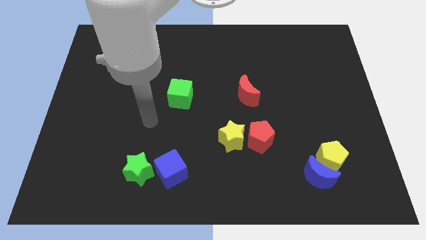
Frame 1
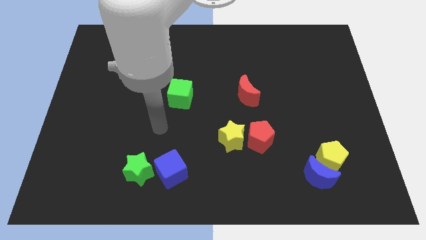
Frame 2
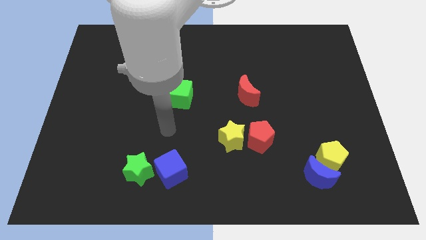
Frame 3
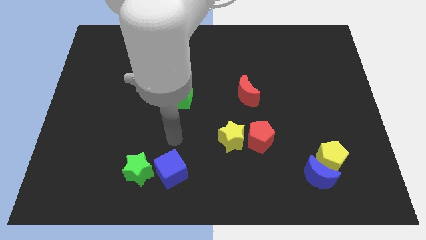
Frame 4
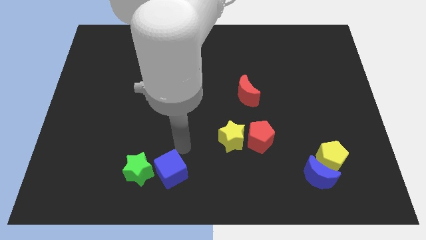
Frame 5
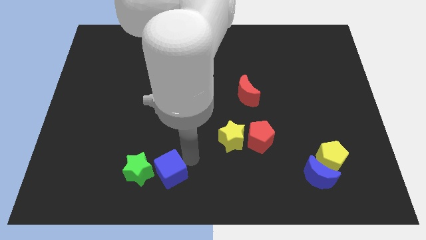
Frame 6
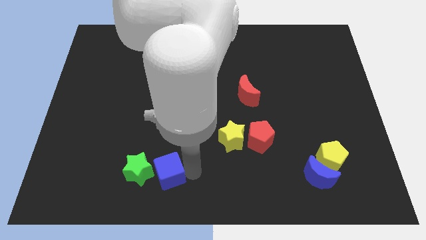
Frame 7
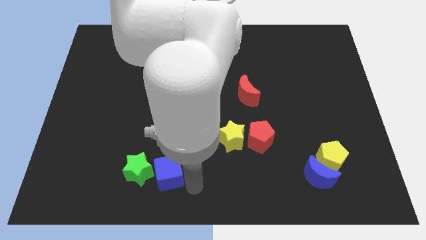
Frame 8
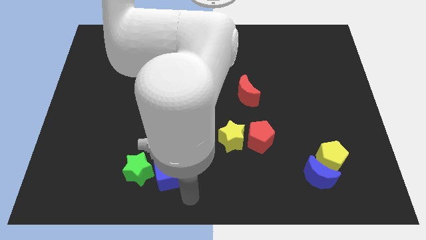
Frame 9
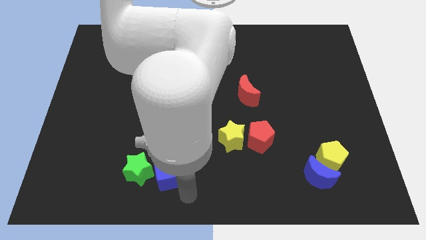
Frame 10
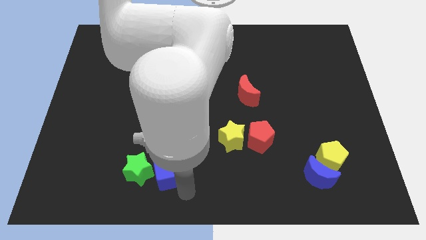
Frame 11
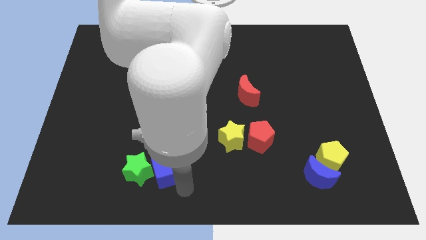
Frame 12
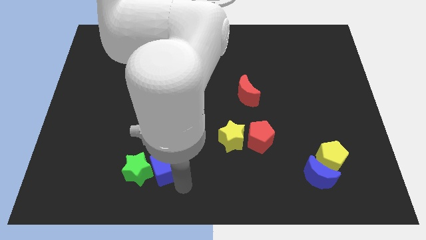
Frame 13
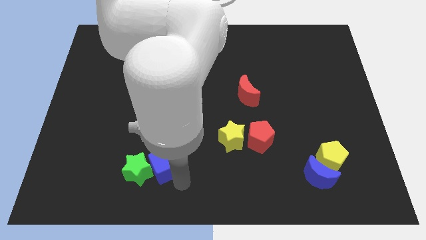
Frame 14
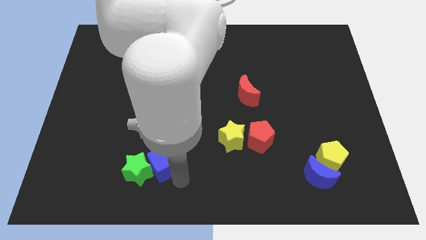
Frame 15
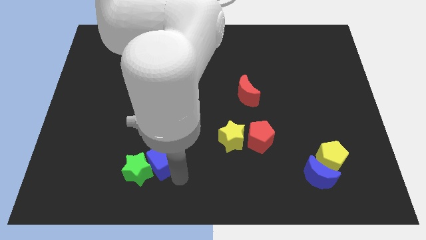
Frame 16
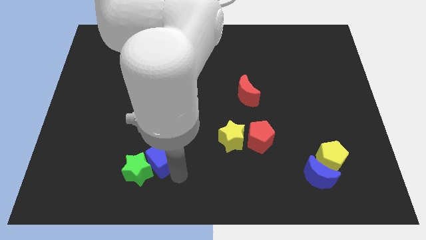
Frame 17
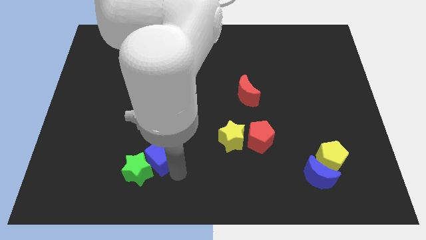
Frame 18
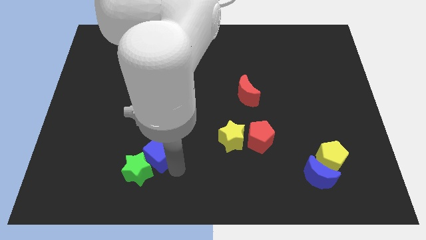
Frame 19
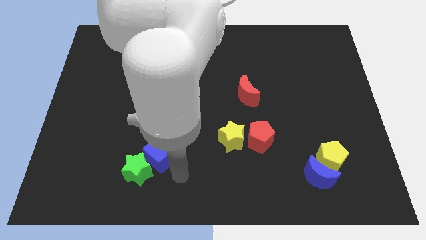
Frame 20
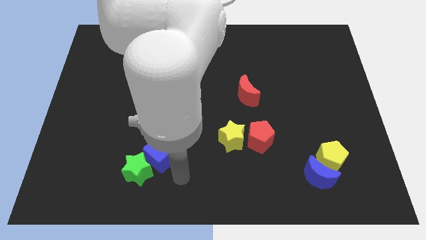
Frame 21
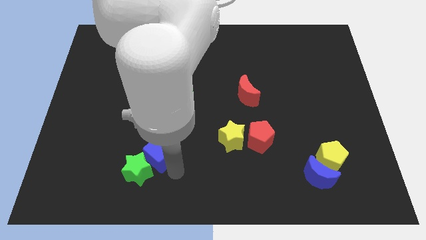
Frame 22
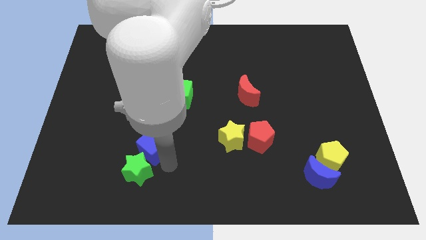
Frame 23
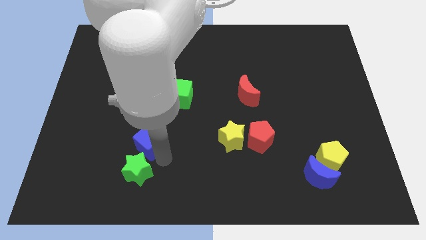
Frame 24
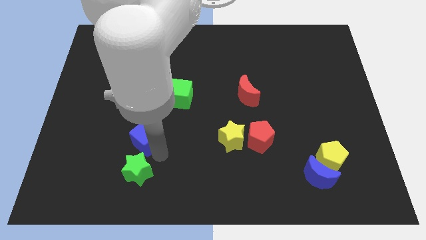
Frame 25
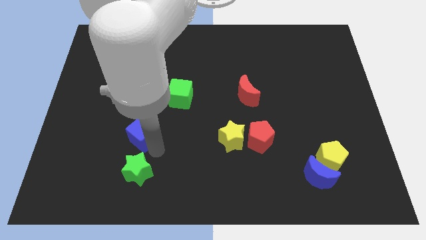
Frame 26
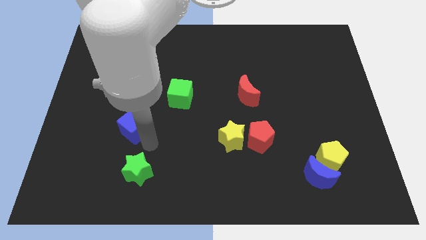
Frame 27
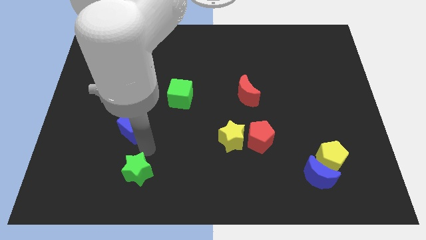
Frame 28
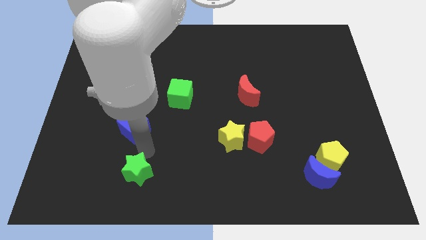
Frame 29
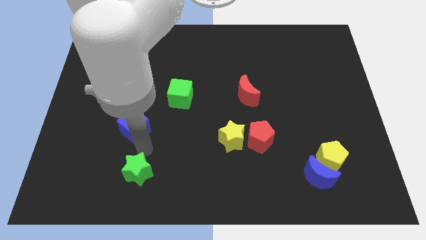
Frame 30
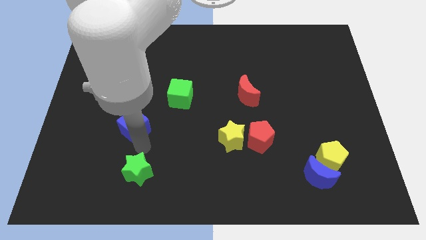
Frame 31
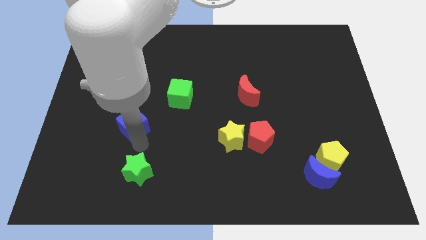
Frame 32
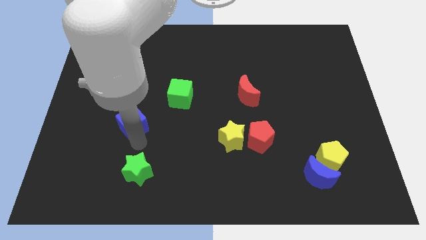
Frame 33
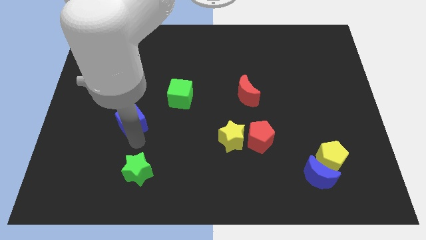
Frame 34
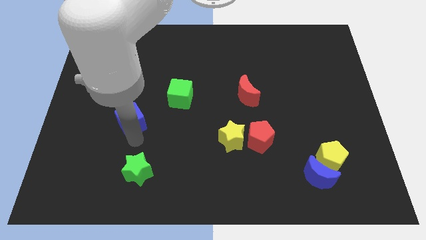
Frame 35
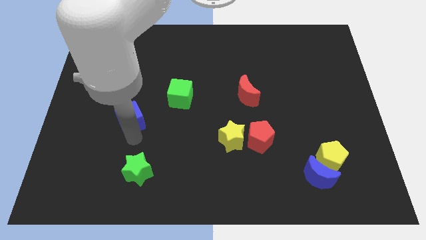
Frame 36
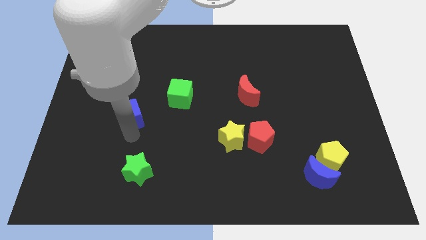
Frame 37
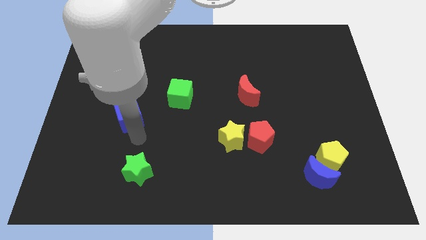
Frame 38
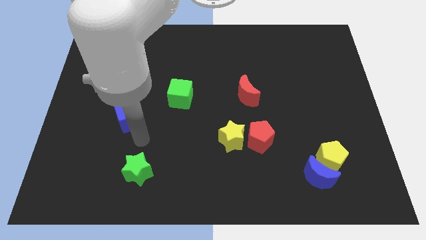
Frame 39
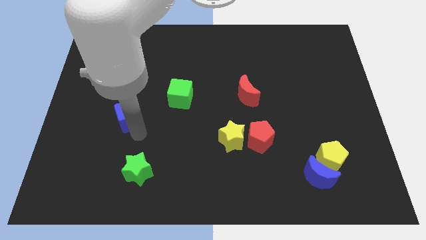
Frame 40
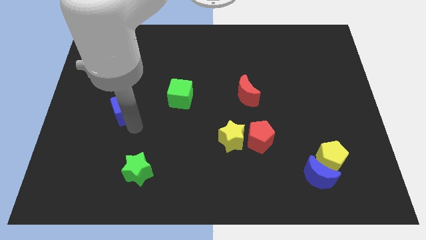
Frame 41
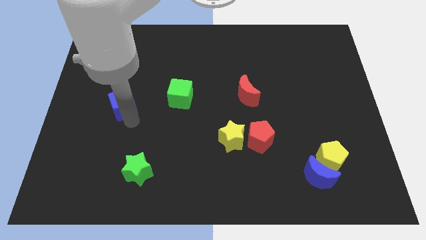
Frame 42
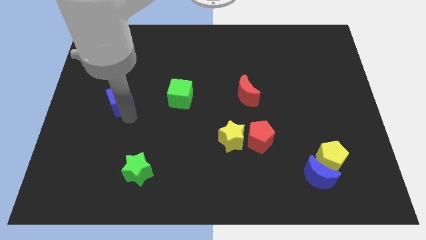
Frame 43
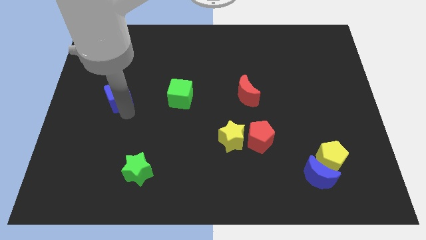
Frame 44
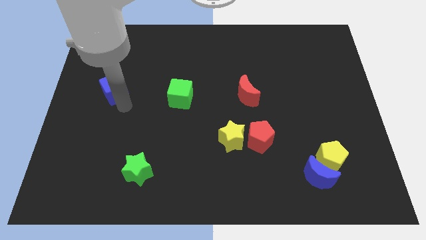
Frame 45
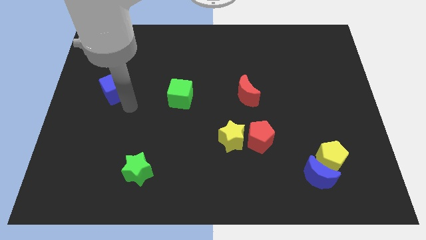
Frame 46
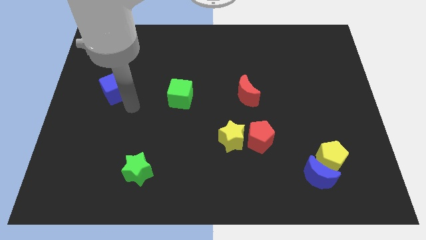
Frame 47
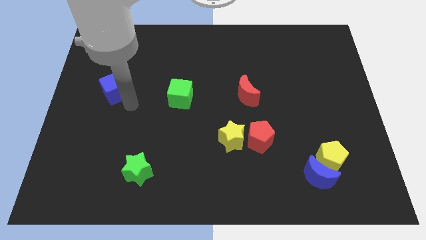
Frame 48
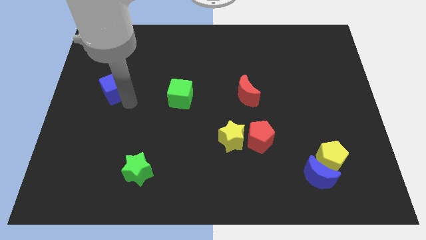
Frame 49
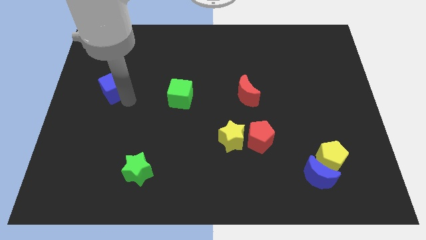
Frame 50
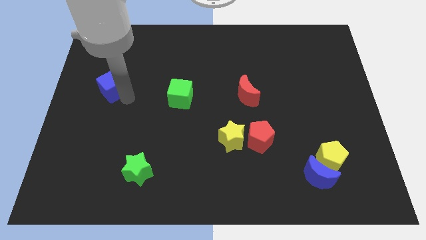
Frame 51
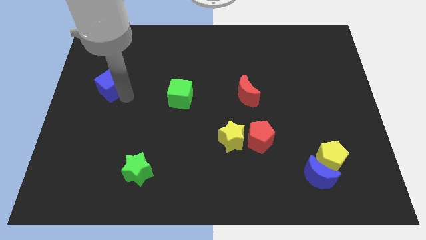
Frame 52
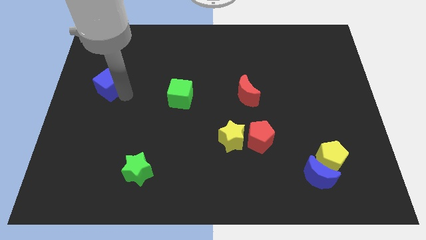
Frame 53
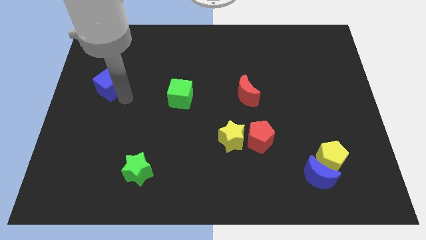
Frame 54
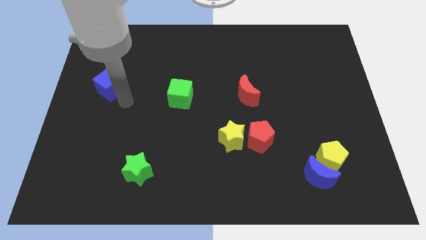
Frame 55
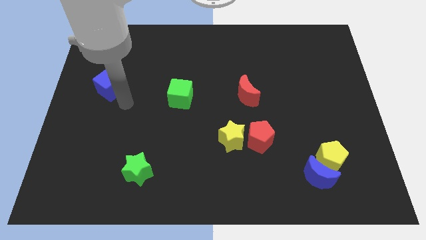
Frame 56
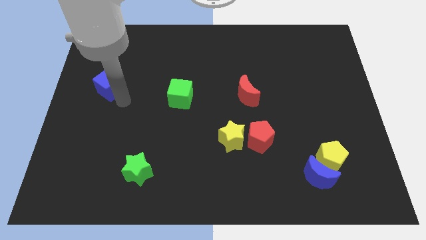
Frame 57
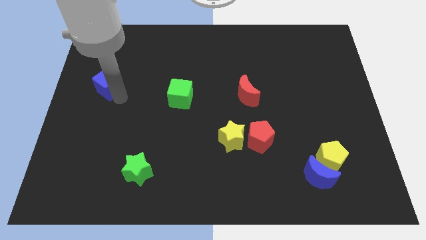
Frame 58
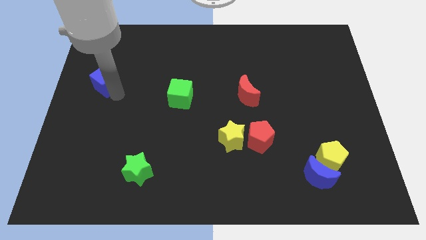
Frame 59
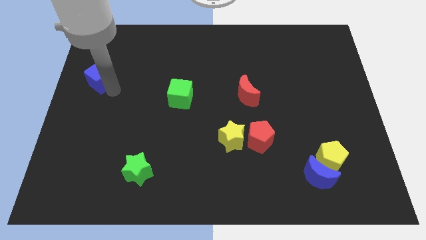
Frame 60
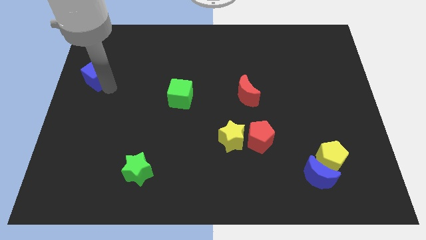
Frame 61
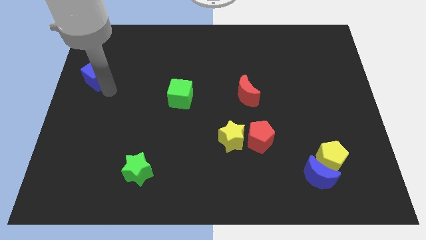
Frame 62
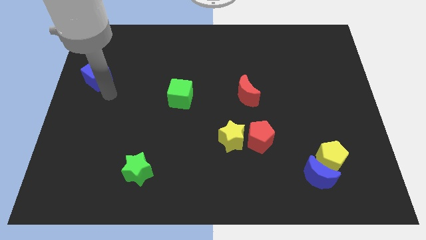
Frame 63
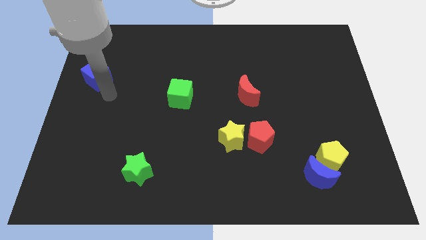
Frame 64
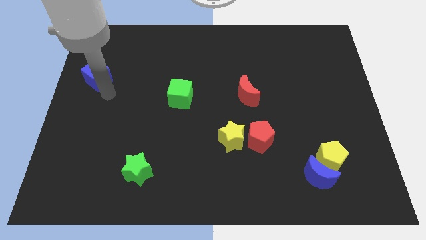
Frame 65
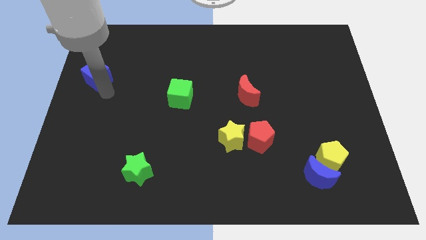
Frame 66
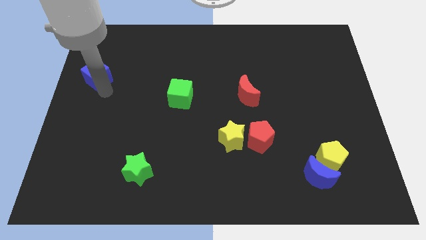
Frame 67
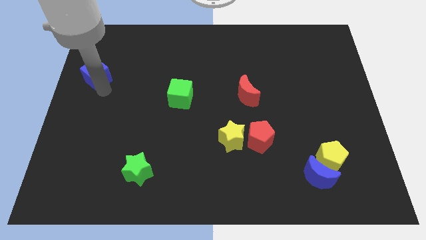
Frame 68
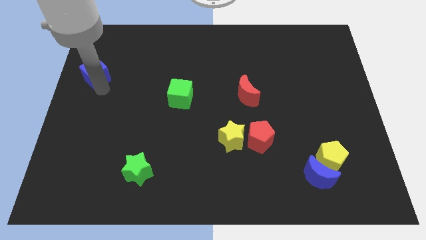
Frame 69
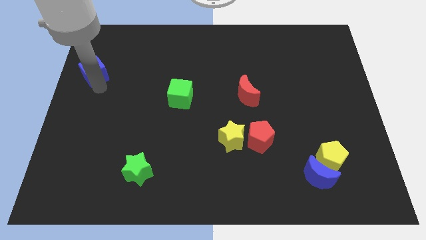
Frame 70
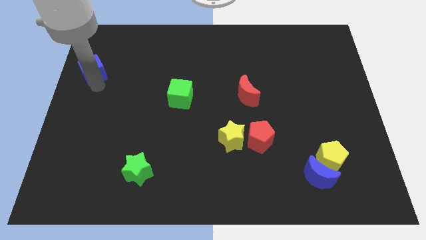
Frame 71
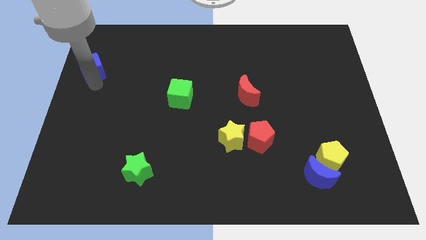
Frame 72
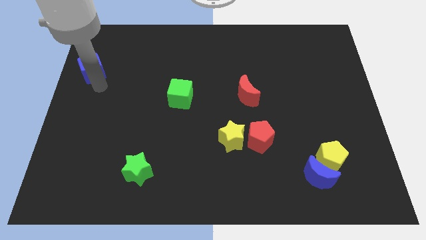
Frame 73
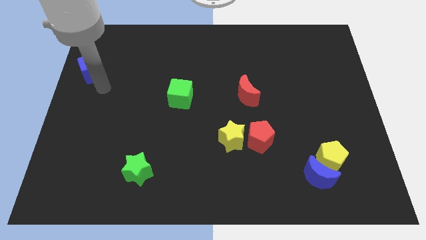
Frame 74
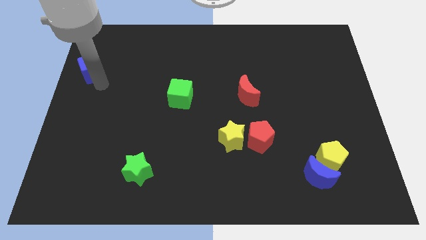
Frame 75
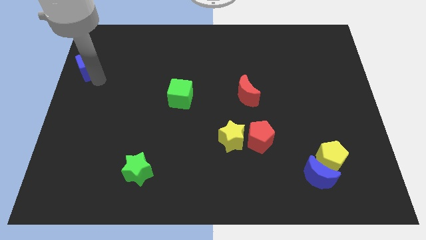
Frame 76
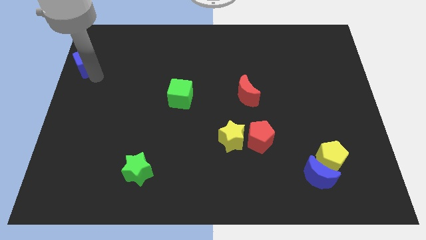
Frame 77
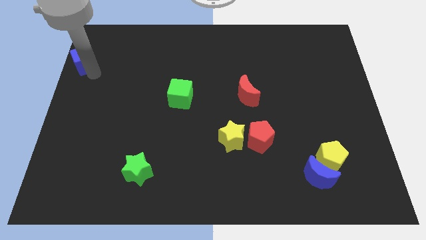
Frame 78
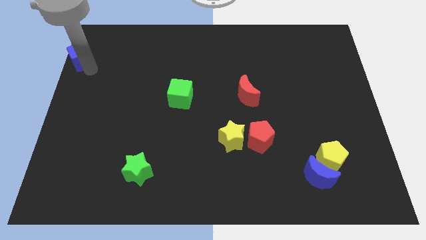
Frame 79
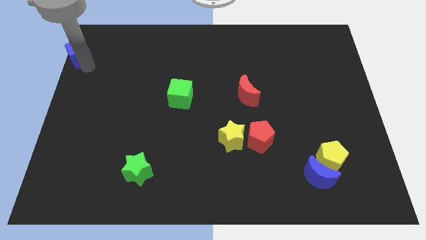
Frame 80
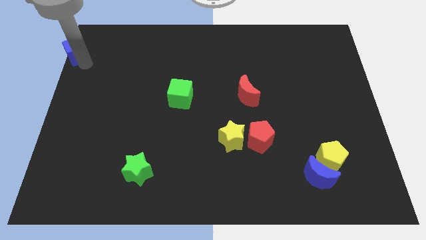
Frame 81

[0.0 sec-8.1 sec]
slide the blue cube to the top left
